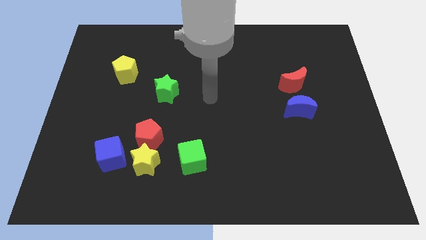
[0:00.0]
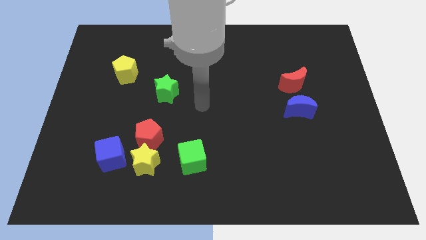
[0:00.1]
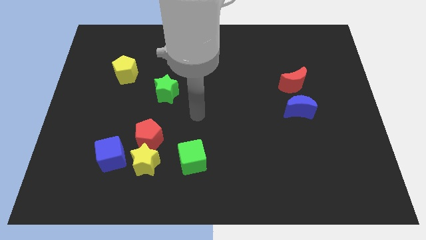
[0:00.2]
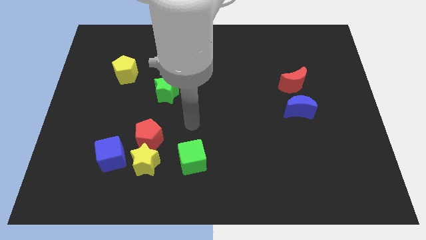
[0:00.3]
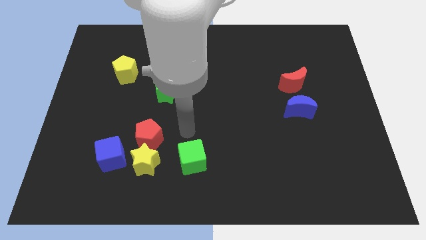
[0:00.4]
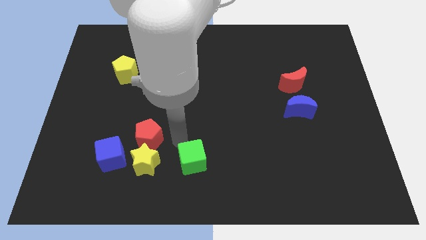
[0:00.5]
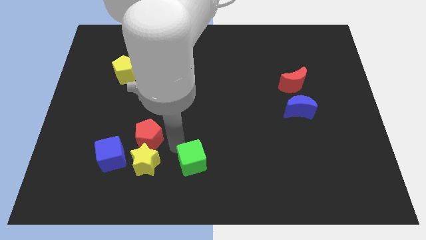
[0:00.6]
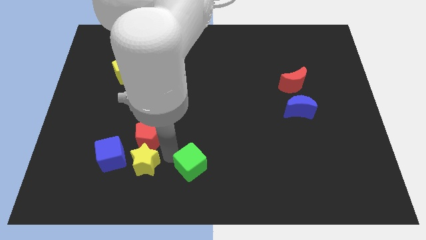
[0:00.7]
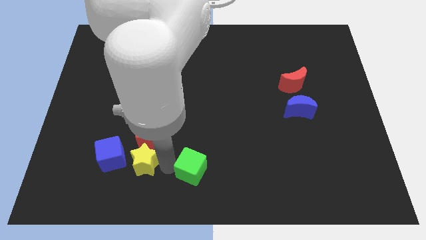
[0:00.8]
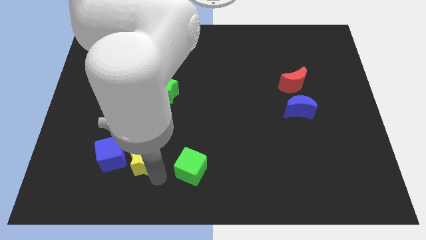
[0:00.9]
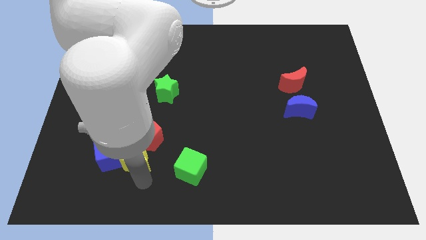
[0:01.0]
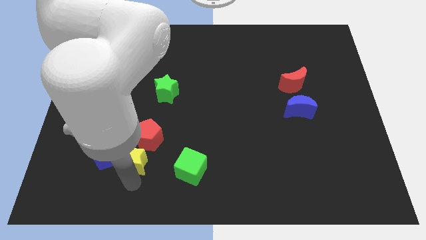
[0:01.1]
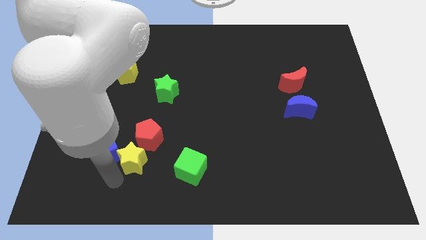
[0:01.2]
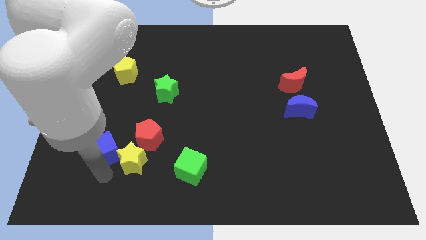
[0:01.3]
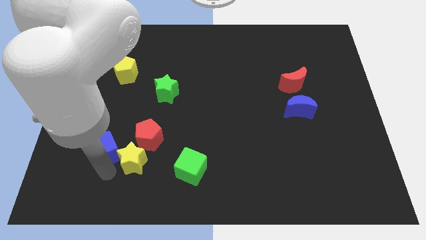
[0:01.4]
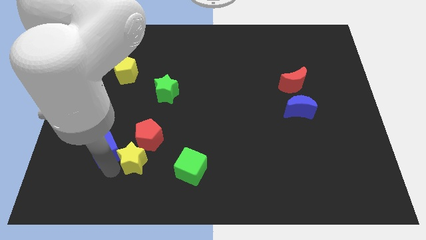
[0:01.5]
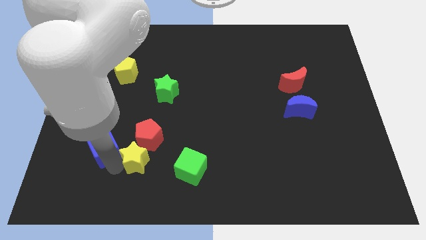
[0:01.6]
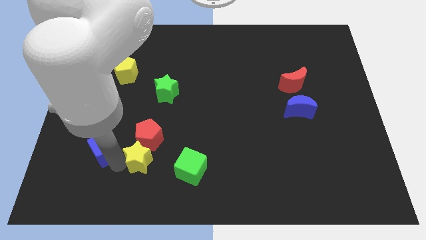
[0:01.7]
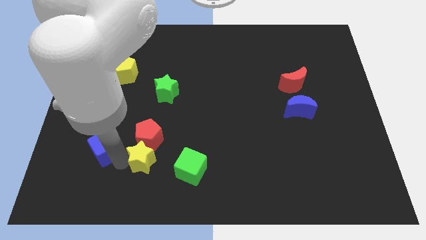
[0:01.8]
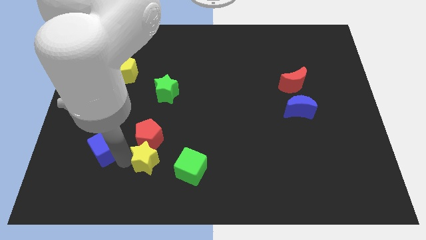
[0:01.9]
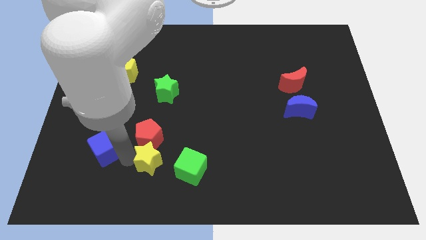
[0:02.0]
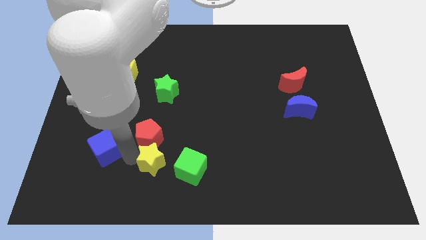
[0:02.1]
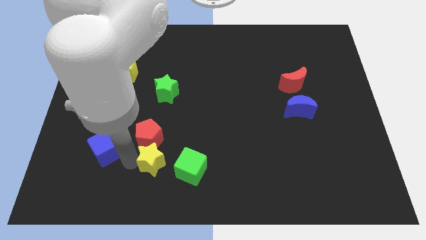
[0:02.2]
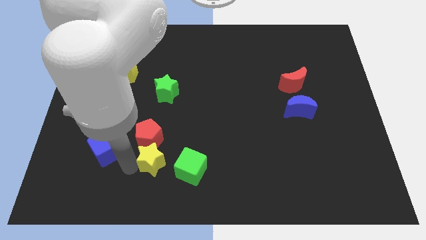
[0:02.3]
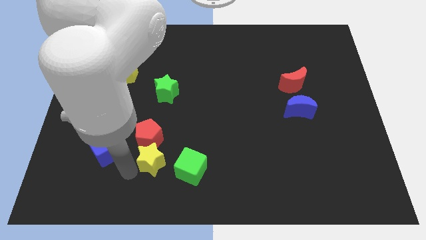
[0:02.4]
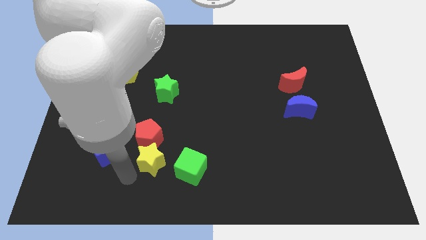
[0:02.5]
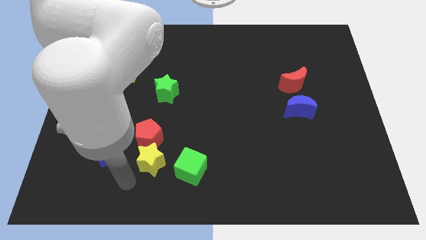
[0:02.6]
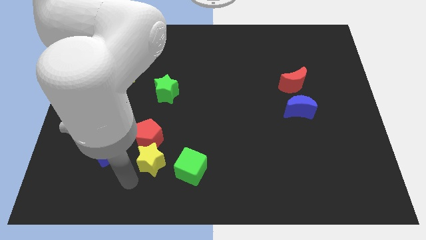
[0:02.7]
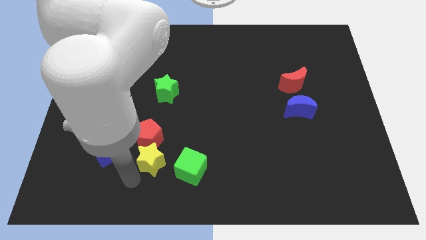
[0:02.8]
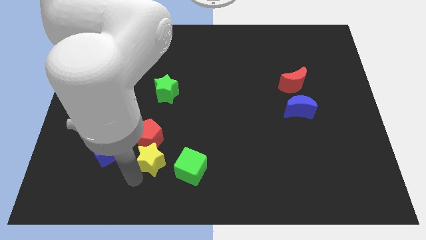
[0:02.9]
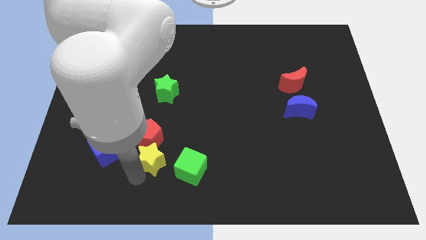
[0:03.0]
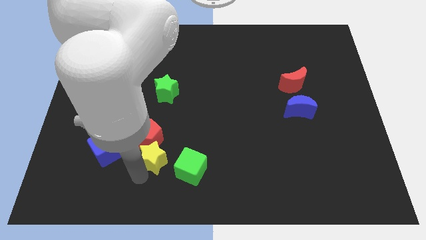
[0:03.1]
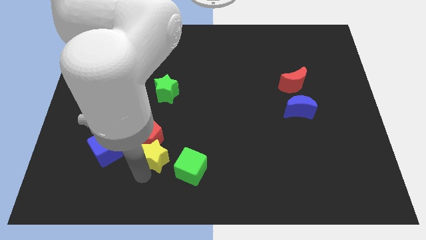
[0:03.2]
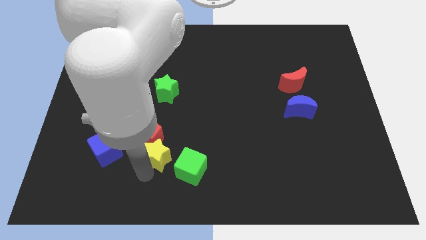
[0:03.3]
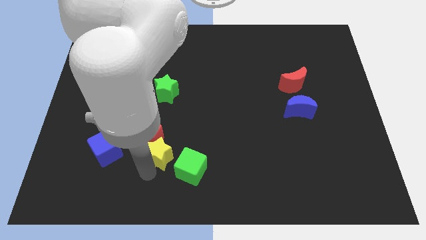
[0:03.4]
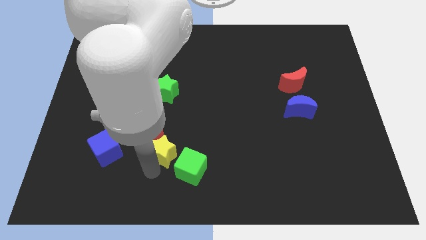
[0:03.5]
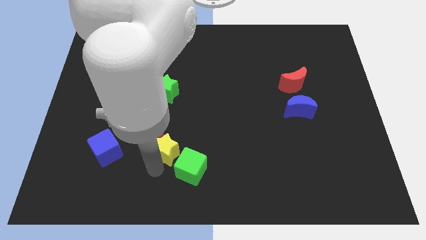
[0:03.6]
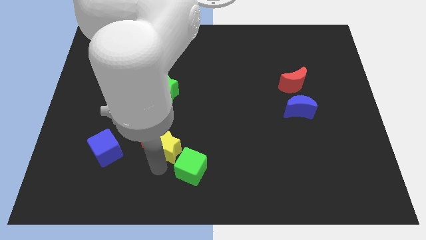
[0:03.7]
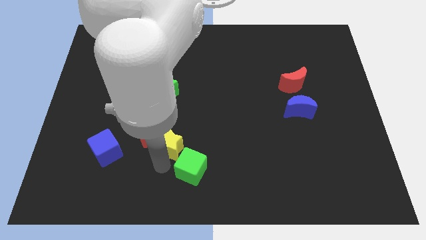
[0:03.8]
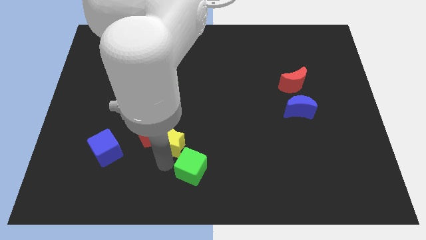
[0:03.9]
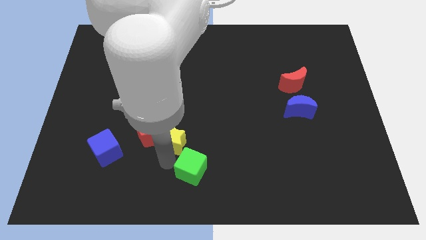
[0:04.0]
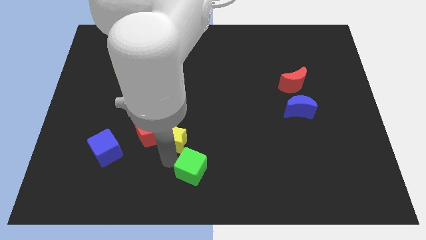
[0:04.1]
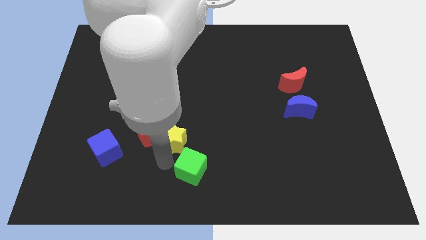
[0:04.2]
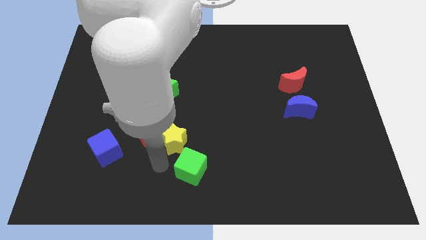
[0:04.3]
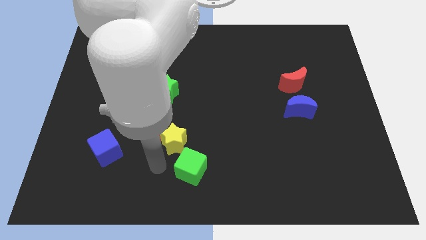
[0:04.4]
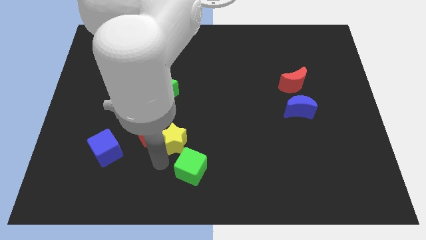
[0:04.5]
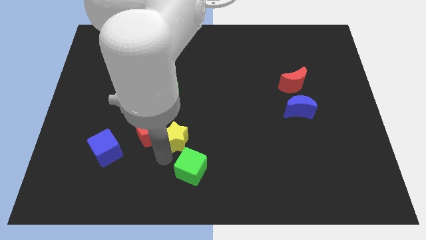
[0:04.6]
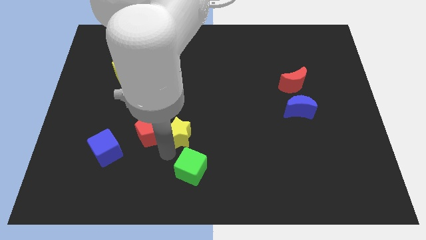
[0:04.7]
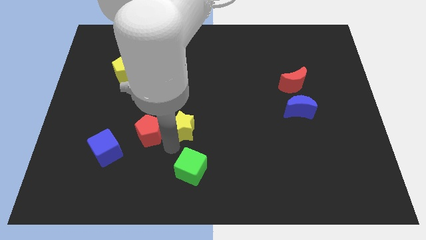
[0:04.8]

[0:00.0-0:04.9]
move the yellow star to the center of the board

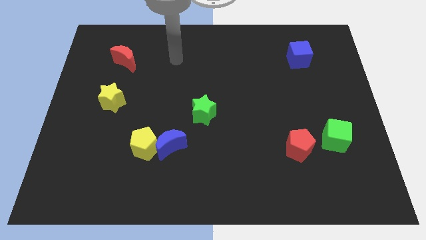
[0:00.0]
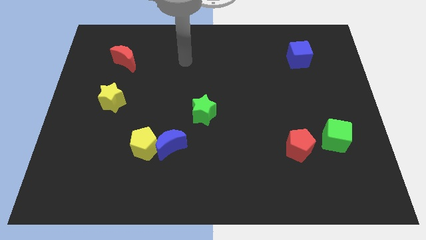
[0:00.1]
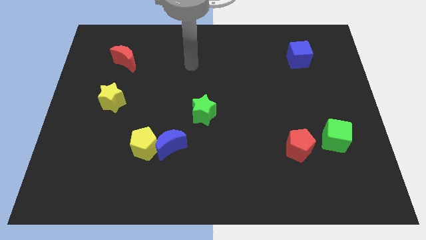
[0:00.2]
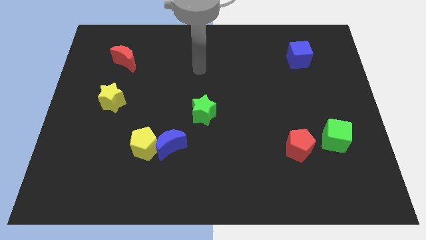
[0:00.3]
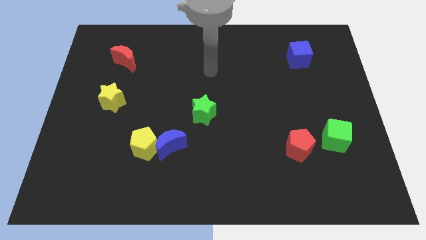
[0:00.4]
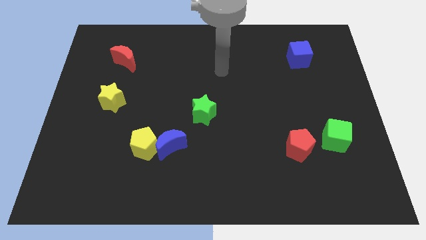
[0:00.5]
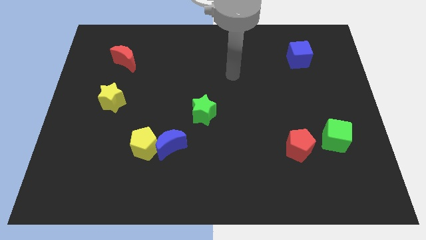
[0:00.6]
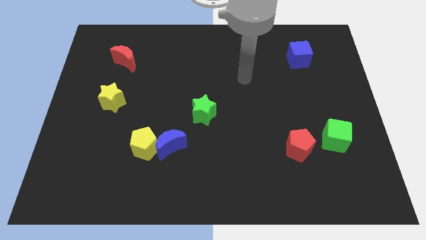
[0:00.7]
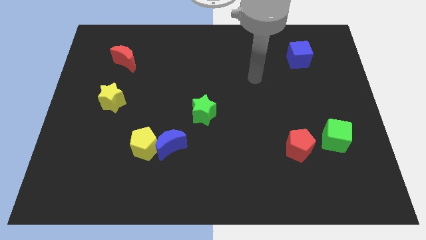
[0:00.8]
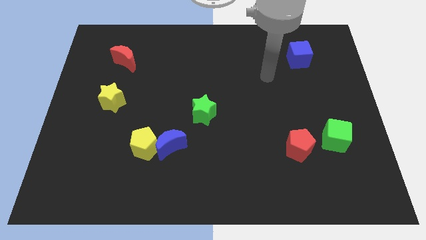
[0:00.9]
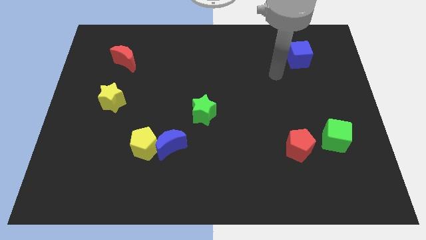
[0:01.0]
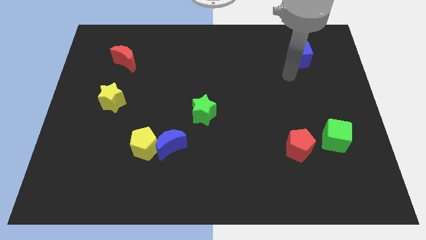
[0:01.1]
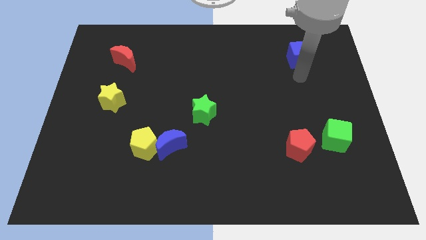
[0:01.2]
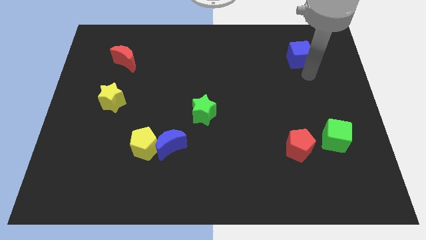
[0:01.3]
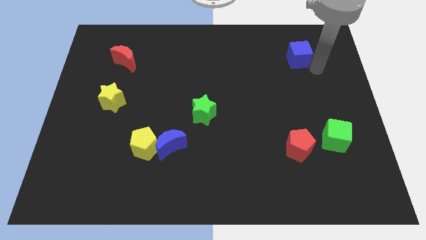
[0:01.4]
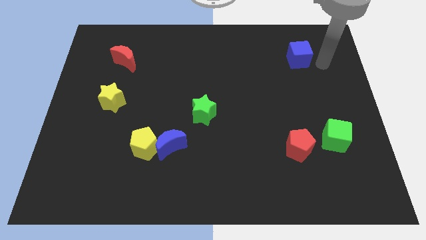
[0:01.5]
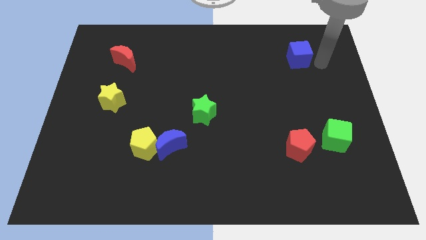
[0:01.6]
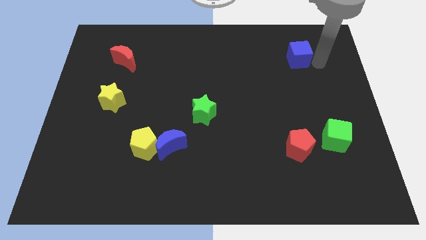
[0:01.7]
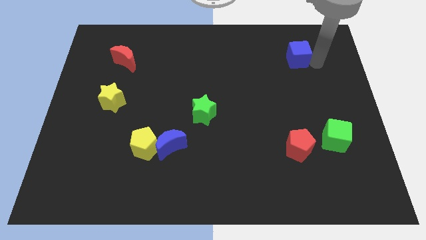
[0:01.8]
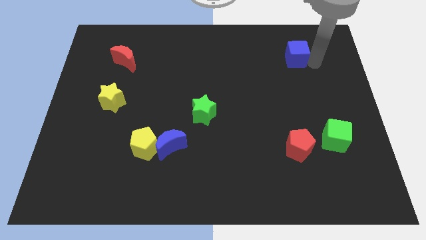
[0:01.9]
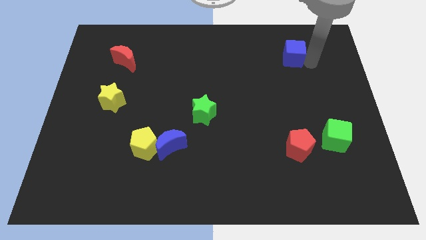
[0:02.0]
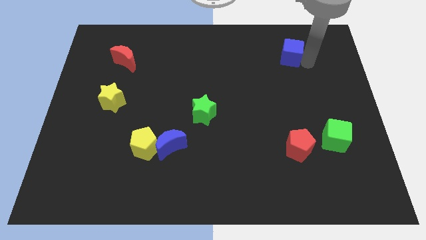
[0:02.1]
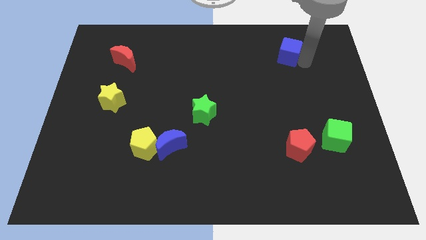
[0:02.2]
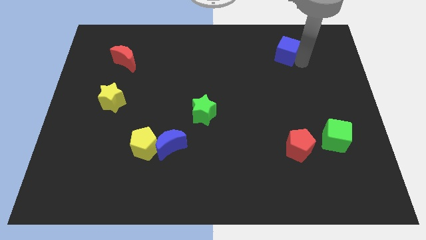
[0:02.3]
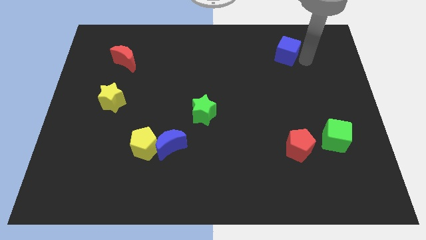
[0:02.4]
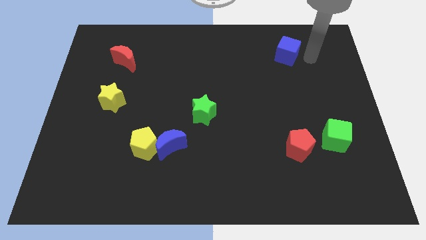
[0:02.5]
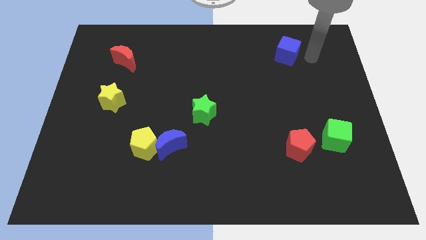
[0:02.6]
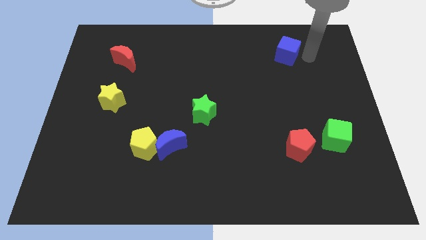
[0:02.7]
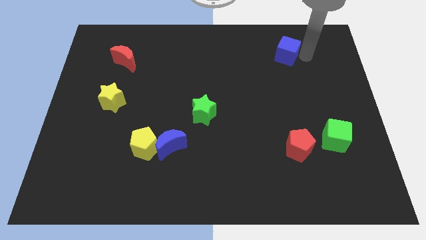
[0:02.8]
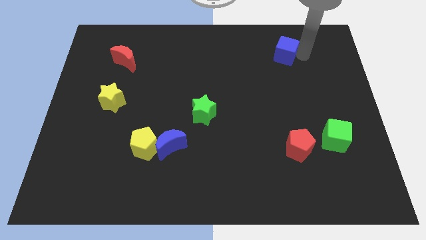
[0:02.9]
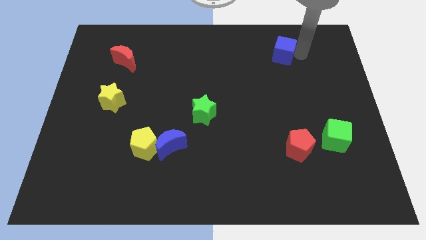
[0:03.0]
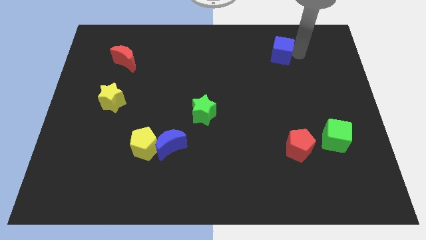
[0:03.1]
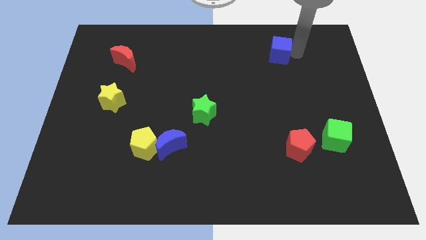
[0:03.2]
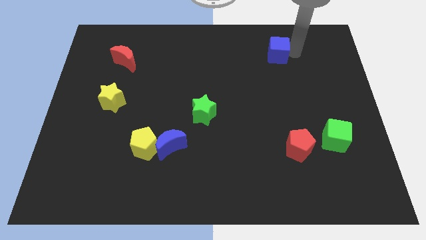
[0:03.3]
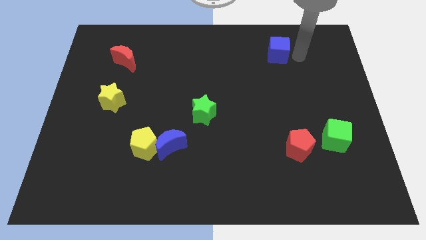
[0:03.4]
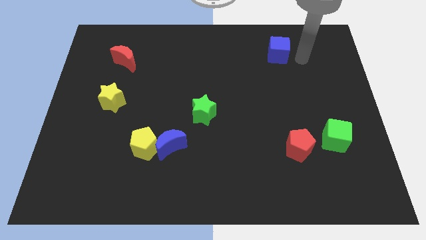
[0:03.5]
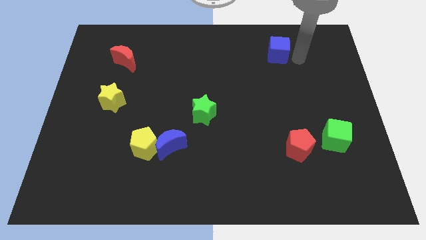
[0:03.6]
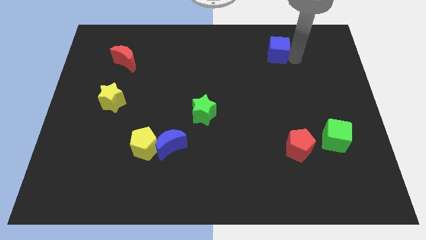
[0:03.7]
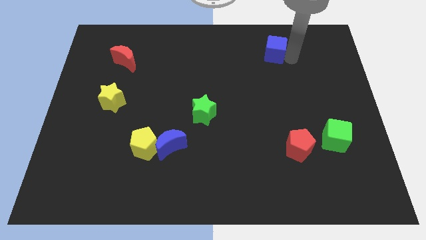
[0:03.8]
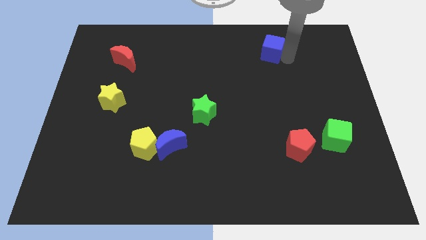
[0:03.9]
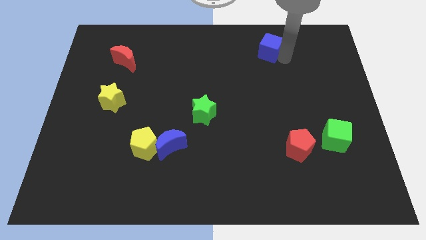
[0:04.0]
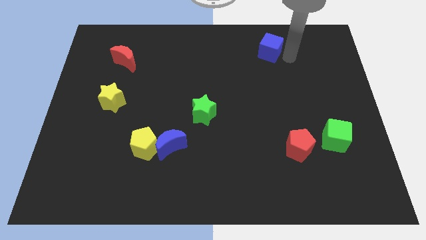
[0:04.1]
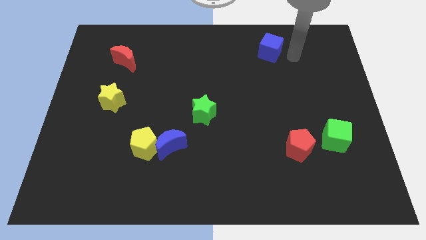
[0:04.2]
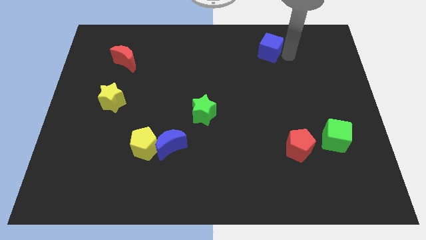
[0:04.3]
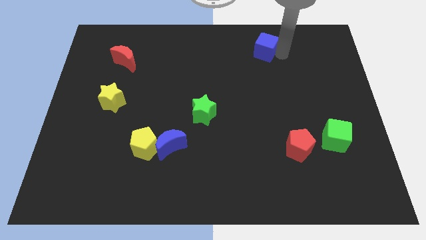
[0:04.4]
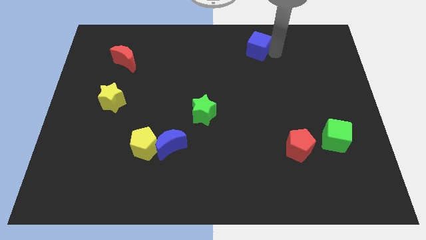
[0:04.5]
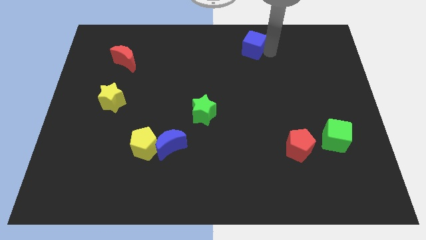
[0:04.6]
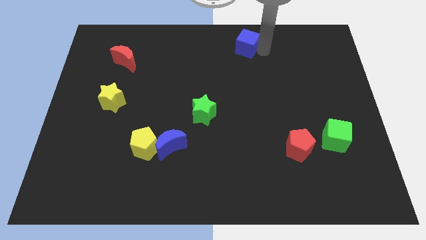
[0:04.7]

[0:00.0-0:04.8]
slide the blue cube to the top
